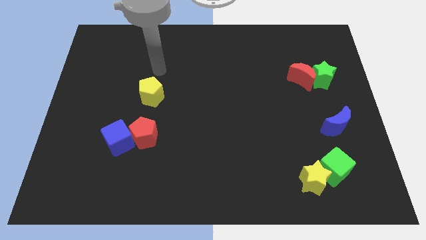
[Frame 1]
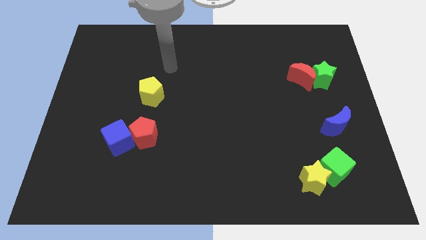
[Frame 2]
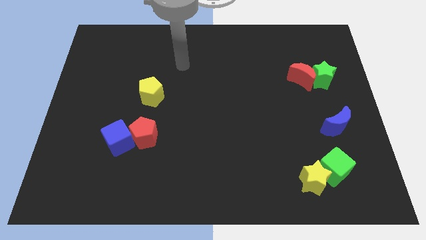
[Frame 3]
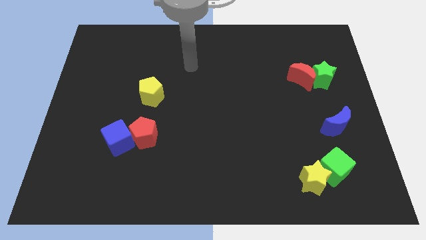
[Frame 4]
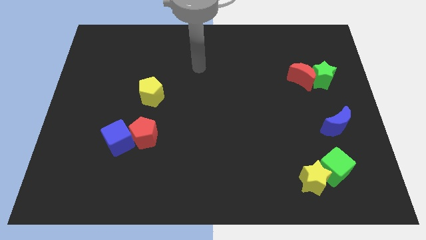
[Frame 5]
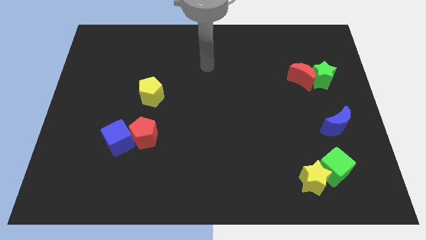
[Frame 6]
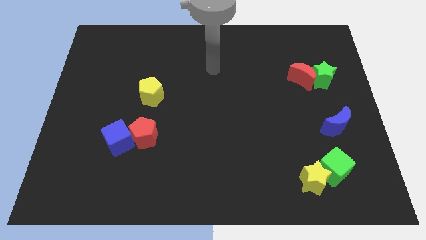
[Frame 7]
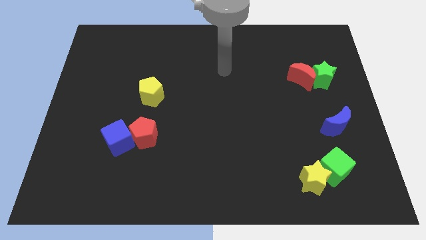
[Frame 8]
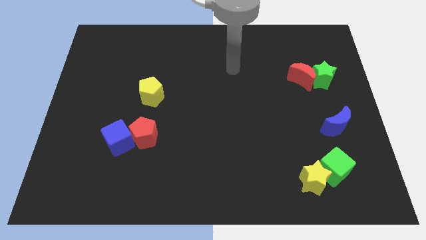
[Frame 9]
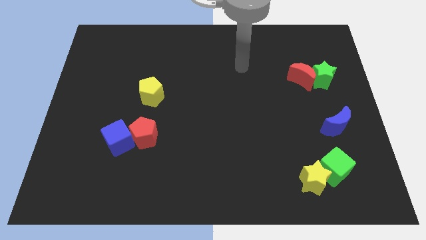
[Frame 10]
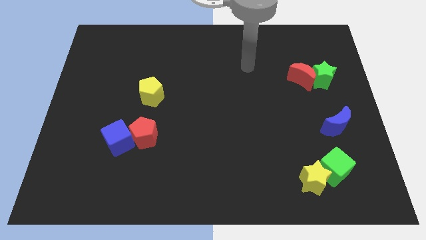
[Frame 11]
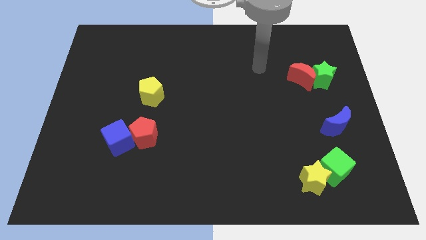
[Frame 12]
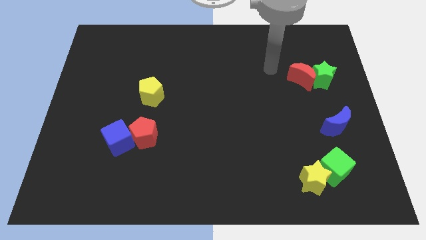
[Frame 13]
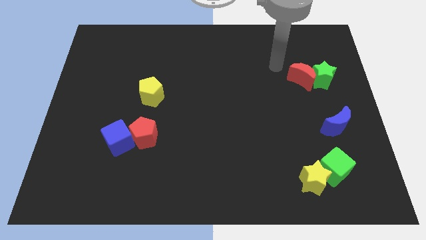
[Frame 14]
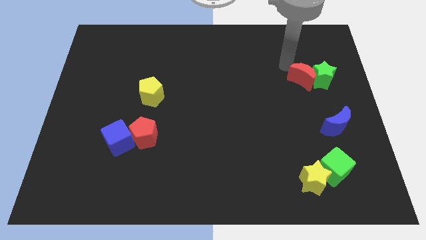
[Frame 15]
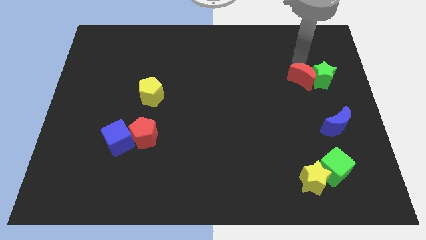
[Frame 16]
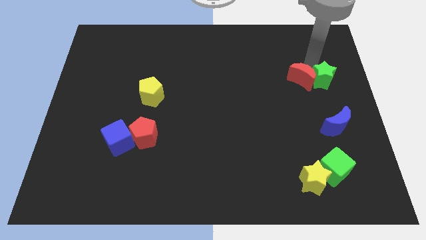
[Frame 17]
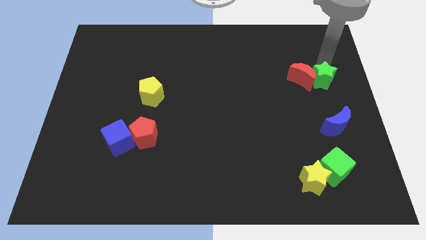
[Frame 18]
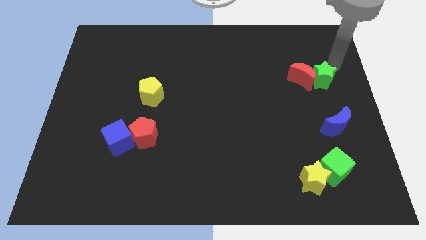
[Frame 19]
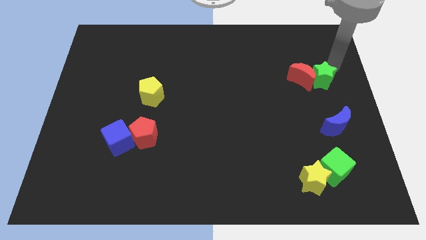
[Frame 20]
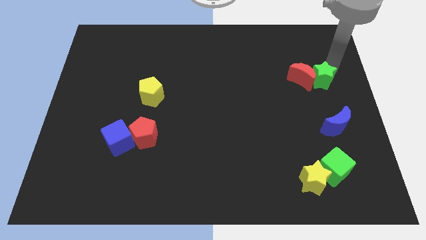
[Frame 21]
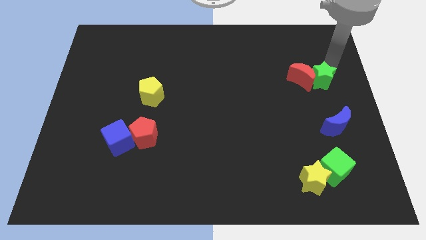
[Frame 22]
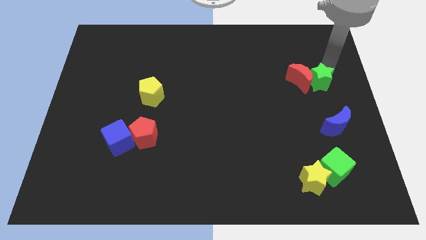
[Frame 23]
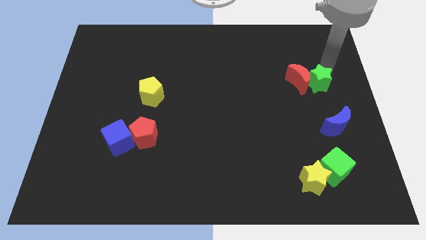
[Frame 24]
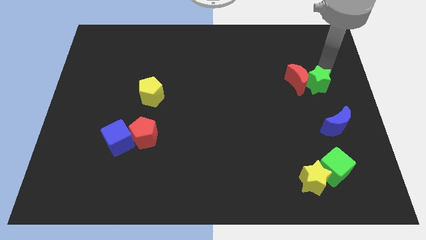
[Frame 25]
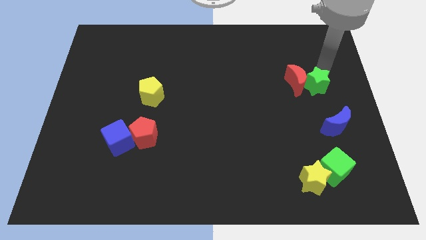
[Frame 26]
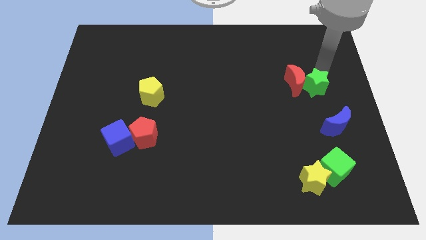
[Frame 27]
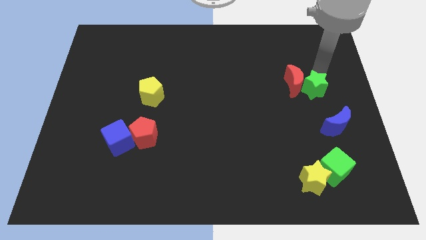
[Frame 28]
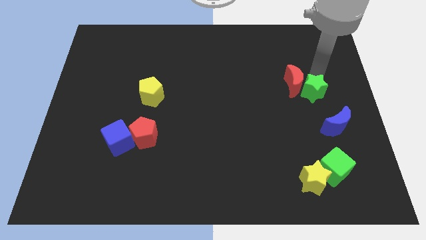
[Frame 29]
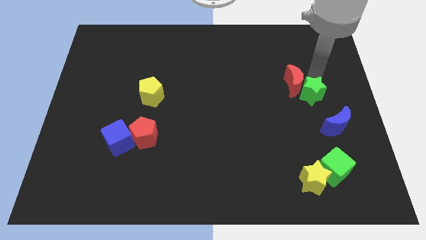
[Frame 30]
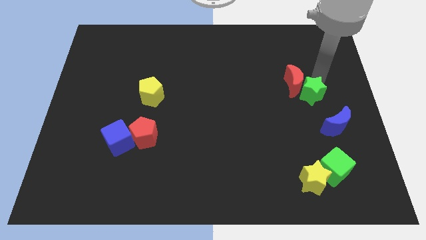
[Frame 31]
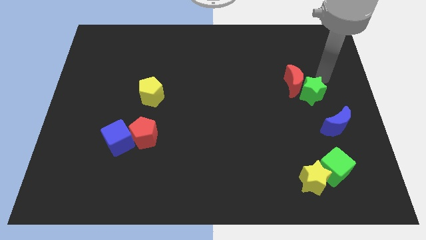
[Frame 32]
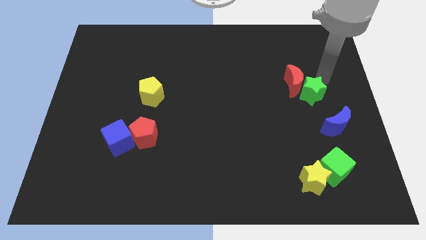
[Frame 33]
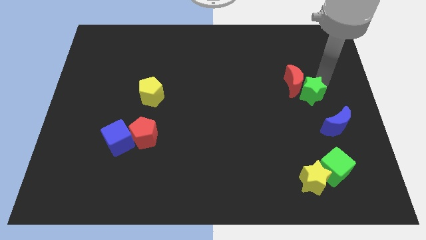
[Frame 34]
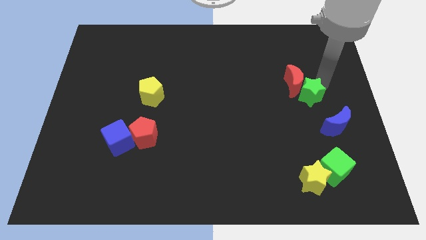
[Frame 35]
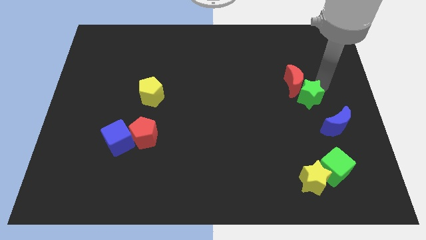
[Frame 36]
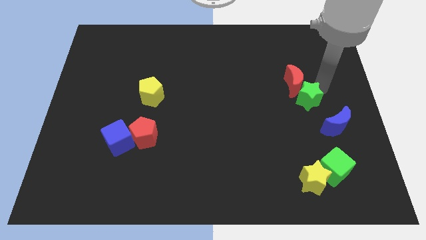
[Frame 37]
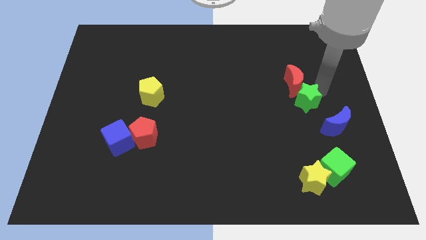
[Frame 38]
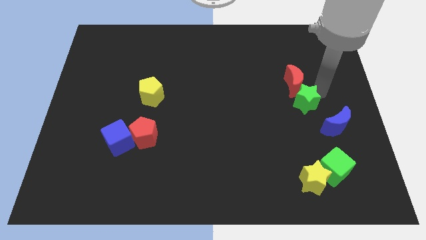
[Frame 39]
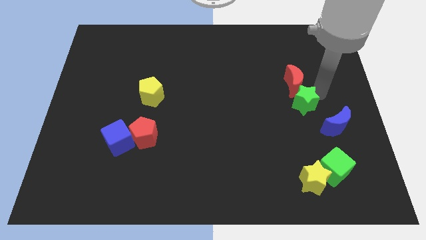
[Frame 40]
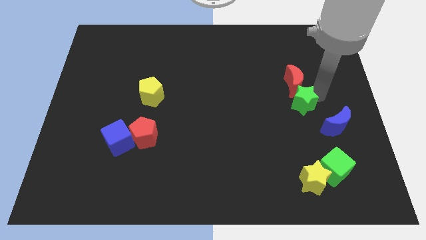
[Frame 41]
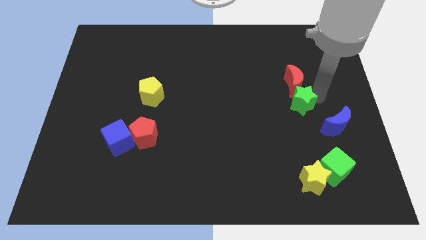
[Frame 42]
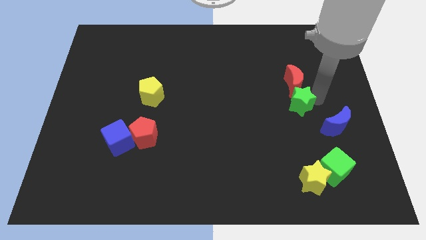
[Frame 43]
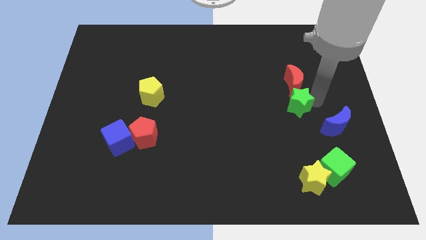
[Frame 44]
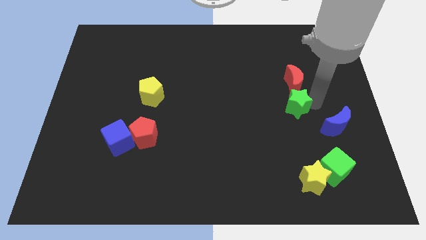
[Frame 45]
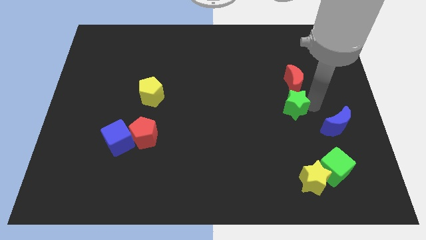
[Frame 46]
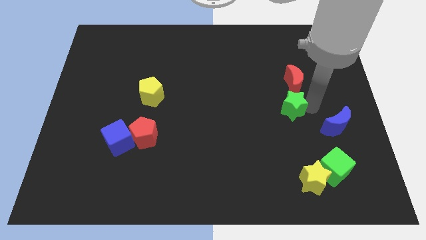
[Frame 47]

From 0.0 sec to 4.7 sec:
slide the green star left of the blue moon

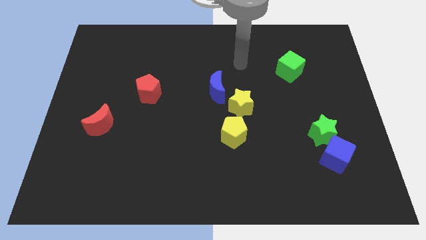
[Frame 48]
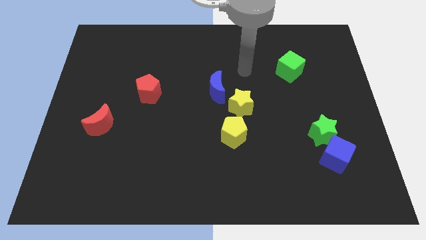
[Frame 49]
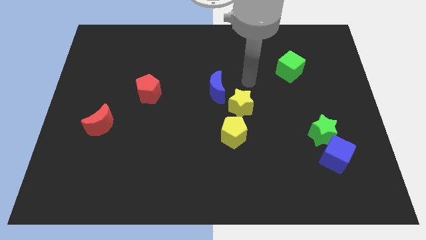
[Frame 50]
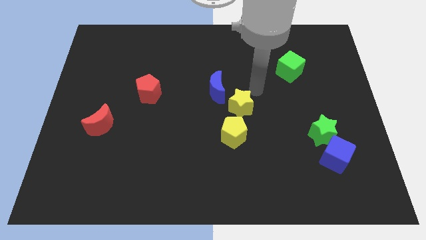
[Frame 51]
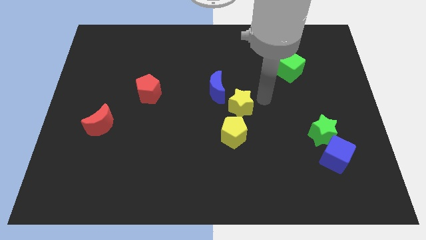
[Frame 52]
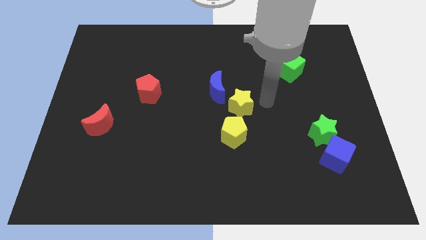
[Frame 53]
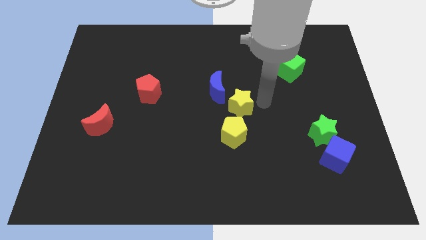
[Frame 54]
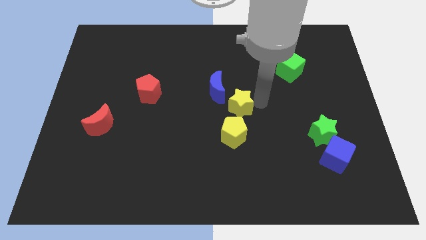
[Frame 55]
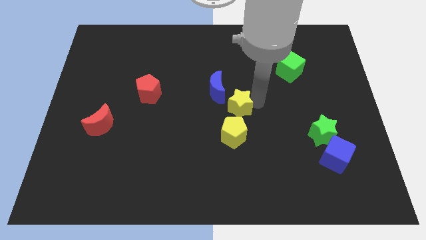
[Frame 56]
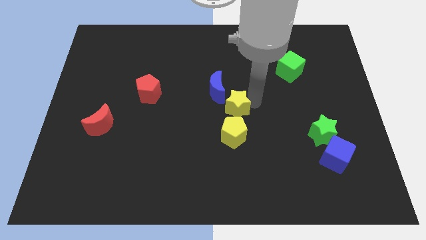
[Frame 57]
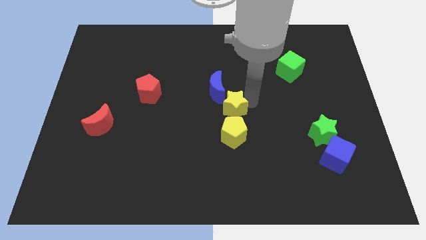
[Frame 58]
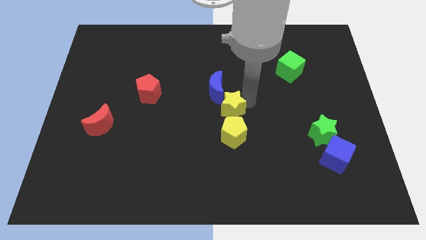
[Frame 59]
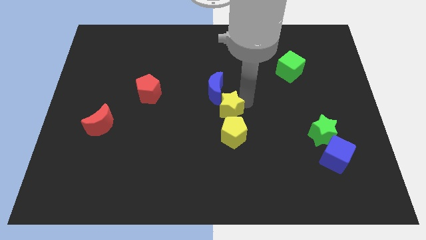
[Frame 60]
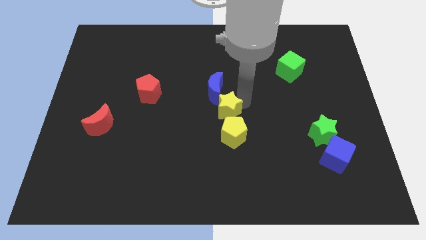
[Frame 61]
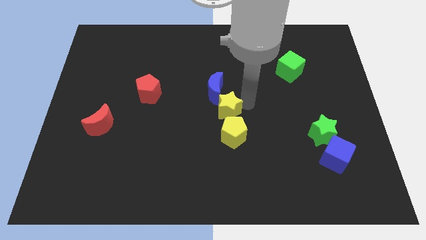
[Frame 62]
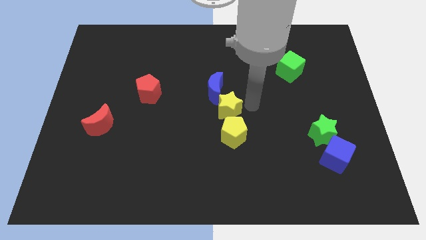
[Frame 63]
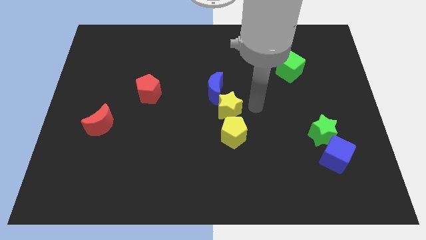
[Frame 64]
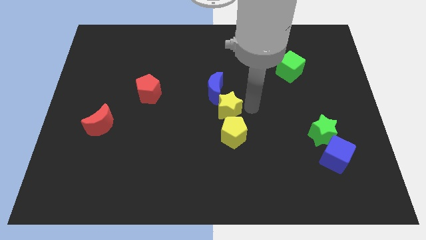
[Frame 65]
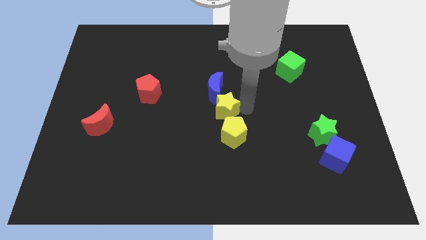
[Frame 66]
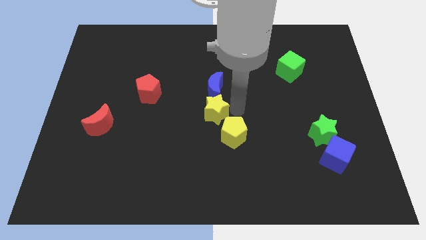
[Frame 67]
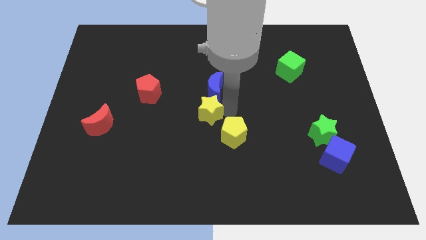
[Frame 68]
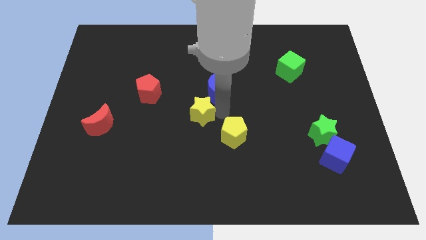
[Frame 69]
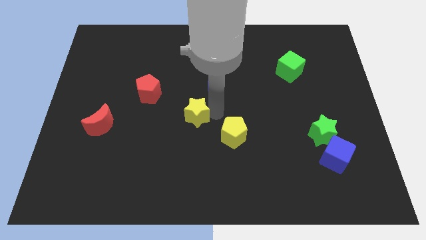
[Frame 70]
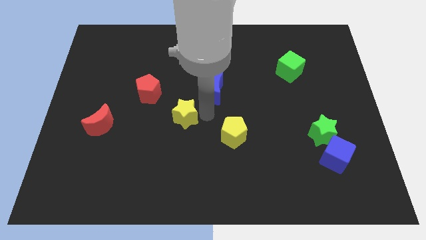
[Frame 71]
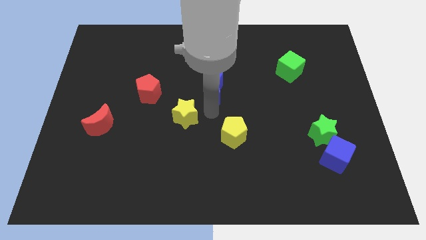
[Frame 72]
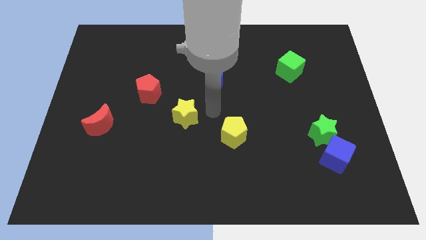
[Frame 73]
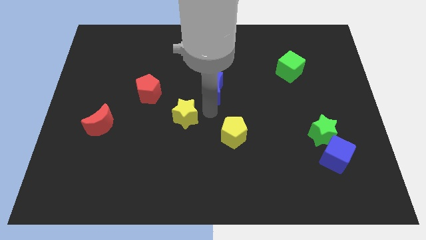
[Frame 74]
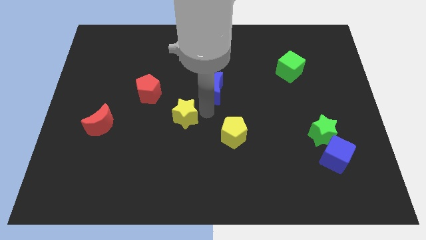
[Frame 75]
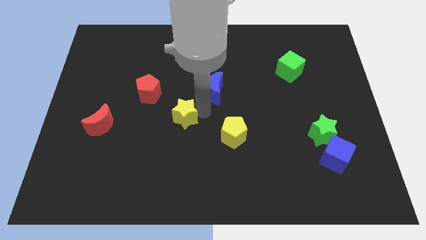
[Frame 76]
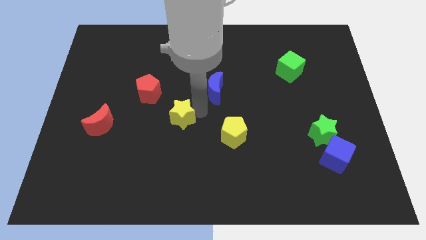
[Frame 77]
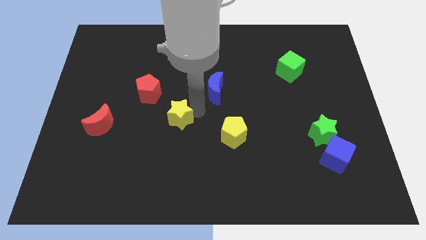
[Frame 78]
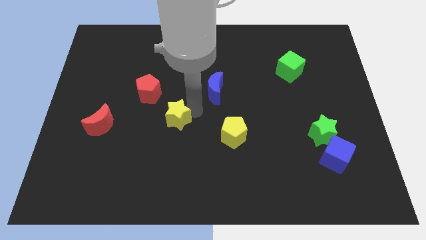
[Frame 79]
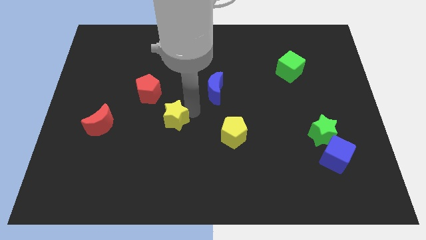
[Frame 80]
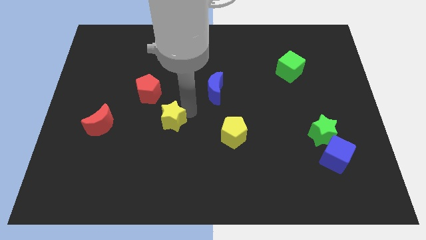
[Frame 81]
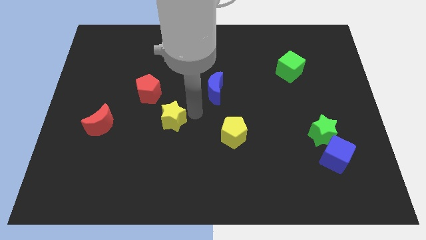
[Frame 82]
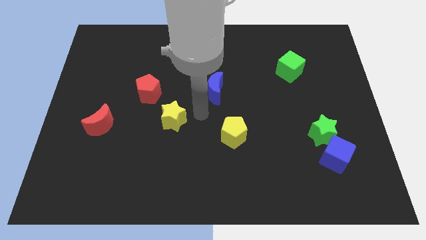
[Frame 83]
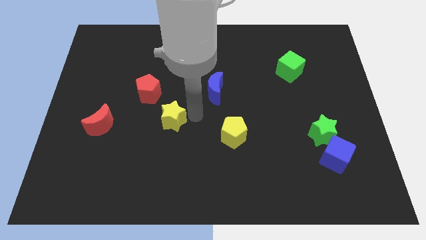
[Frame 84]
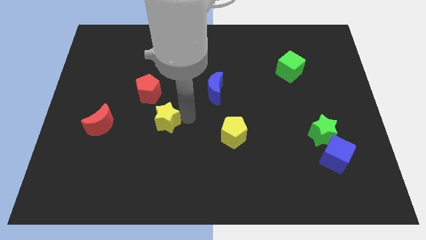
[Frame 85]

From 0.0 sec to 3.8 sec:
slide the yellow star below the red pentagon
